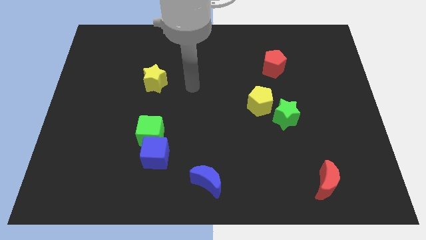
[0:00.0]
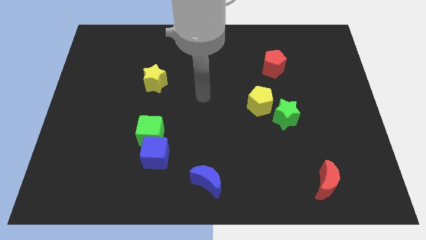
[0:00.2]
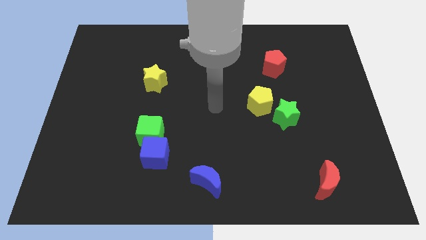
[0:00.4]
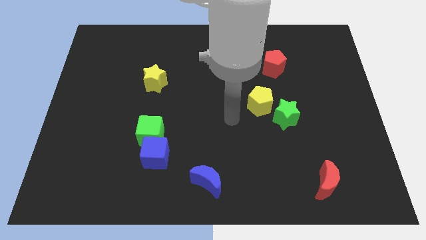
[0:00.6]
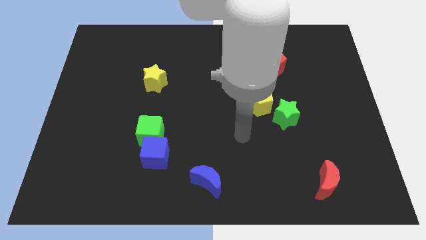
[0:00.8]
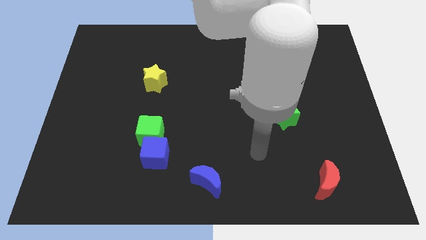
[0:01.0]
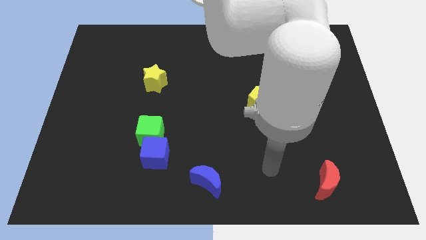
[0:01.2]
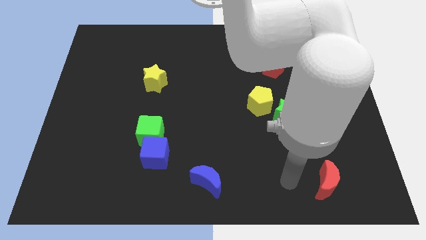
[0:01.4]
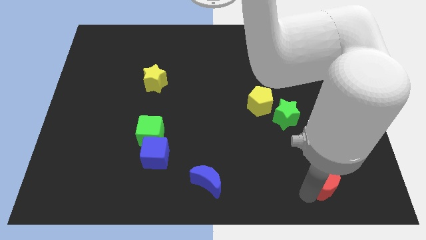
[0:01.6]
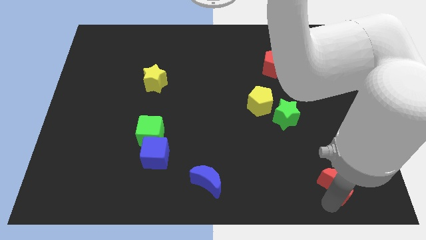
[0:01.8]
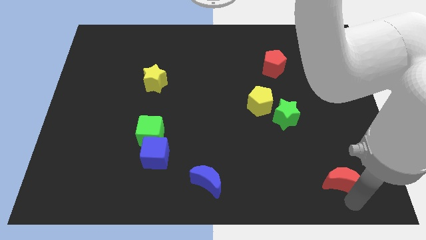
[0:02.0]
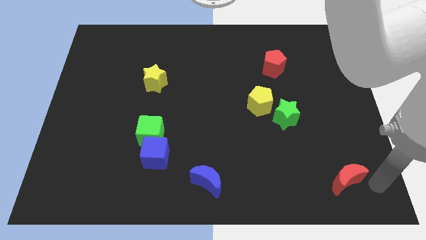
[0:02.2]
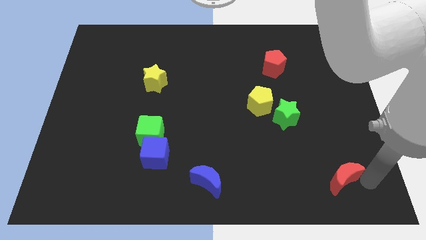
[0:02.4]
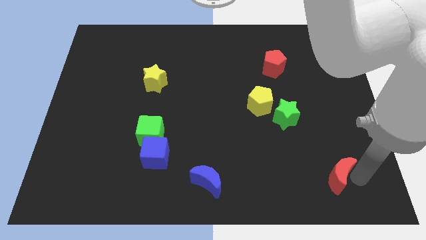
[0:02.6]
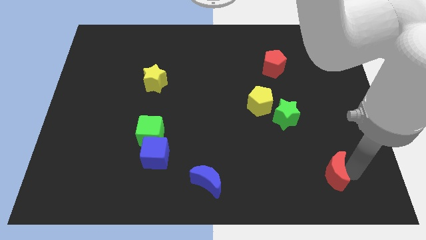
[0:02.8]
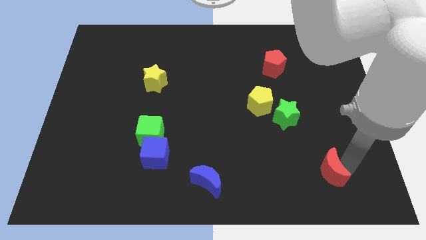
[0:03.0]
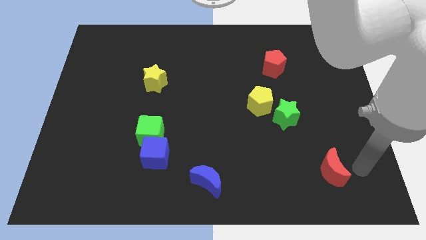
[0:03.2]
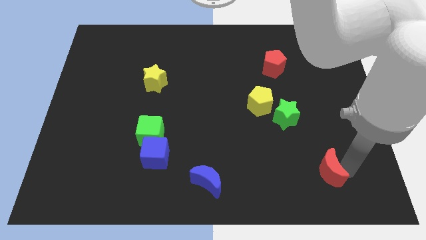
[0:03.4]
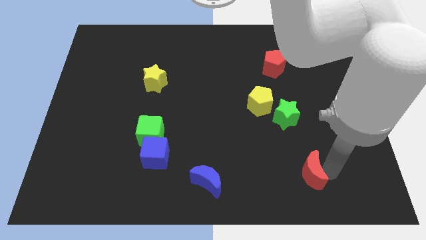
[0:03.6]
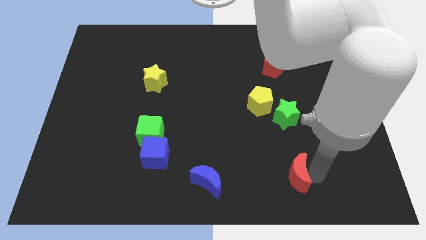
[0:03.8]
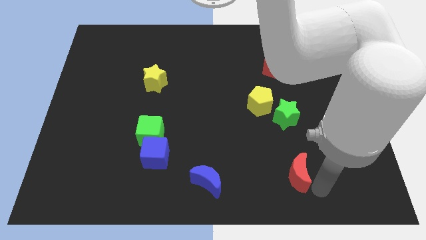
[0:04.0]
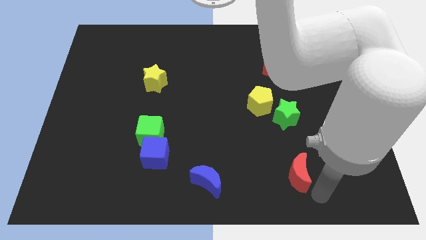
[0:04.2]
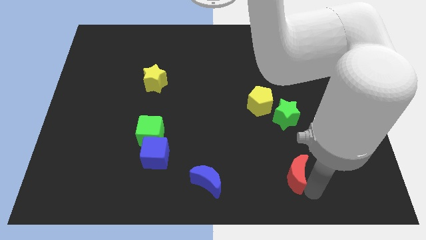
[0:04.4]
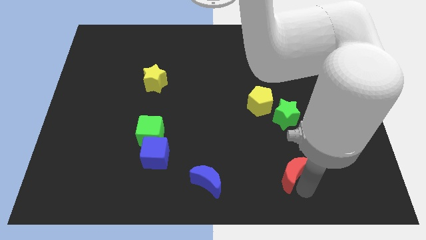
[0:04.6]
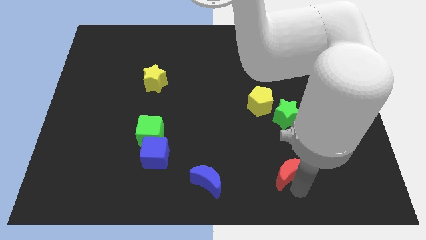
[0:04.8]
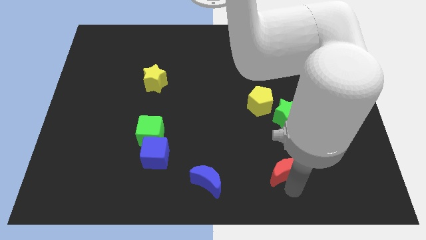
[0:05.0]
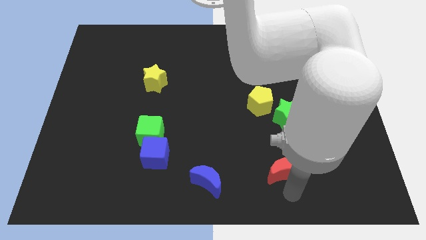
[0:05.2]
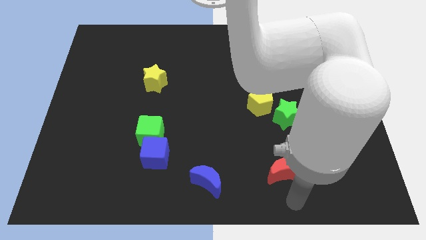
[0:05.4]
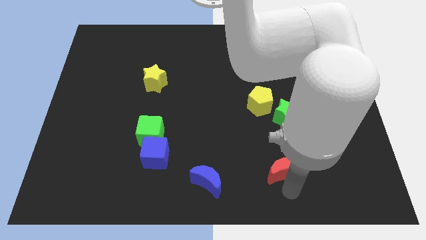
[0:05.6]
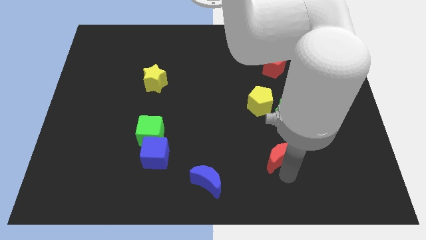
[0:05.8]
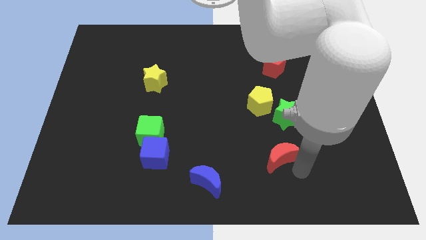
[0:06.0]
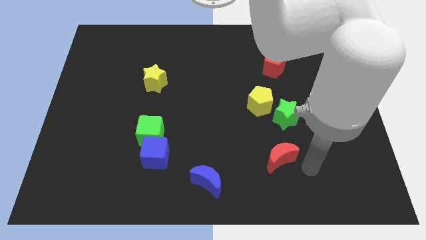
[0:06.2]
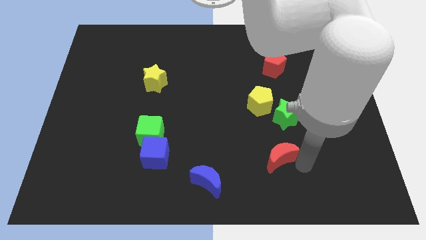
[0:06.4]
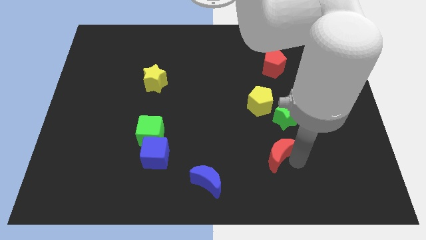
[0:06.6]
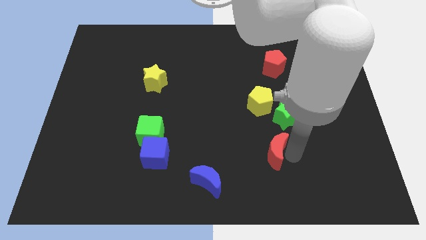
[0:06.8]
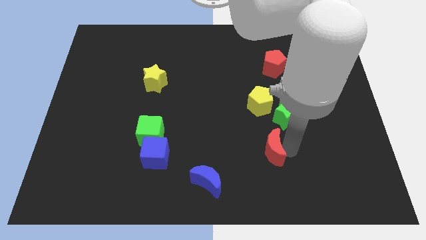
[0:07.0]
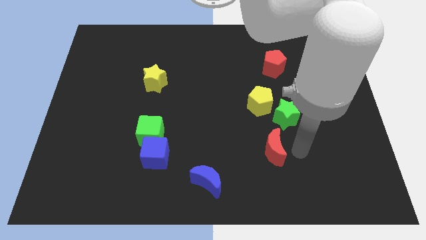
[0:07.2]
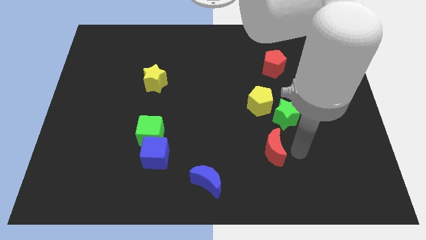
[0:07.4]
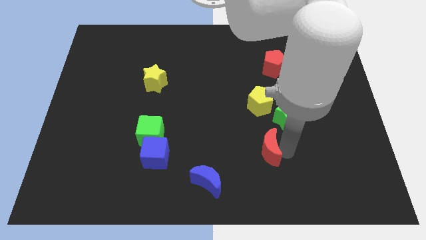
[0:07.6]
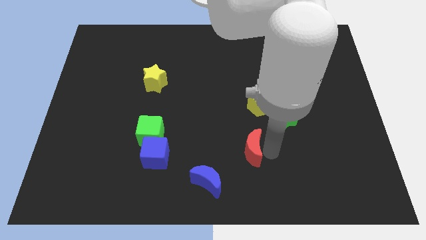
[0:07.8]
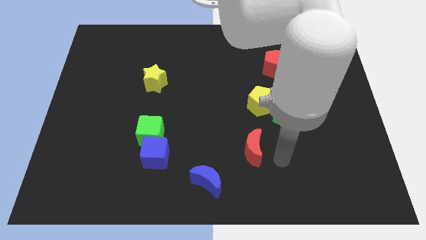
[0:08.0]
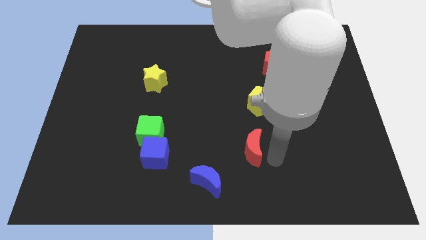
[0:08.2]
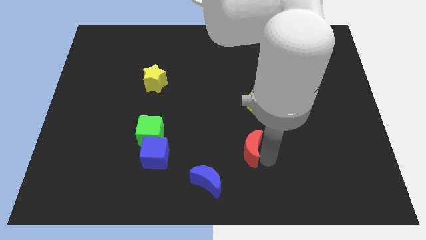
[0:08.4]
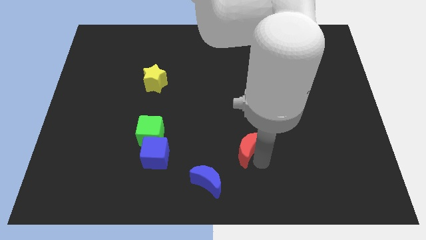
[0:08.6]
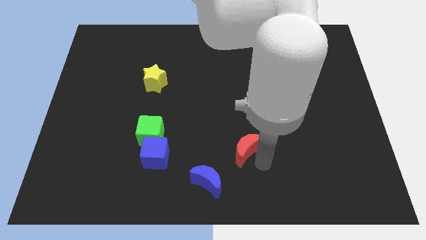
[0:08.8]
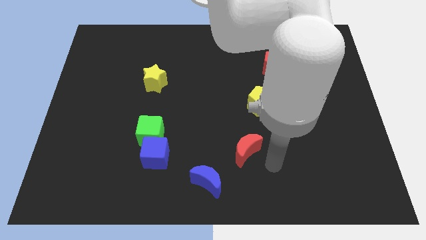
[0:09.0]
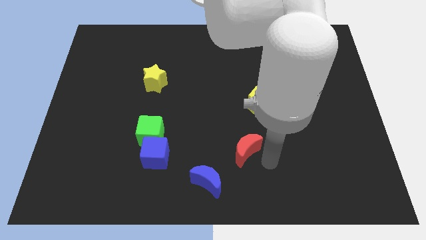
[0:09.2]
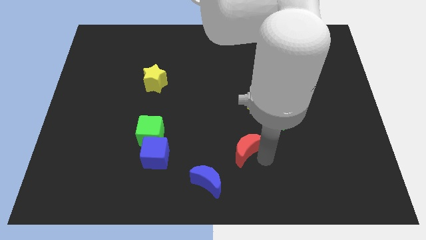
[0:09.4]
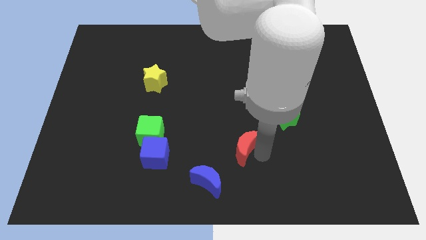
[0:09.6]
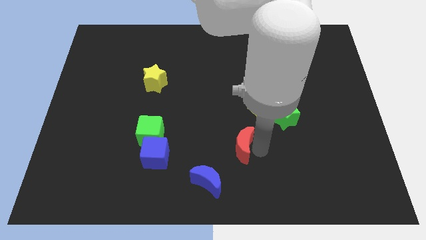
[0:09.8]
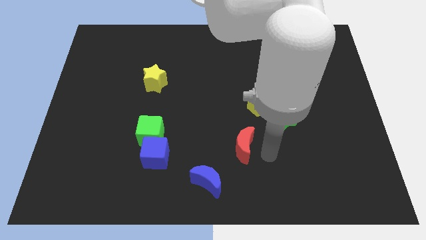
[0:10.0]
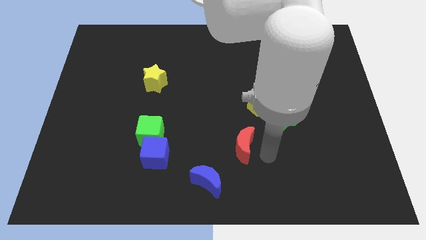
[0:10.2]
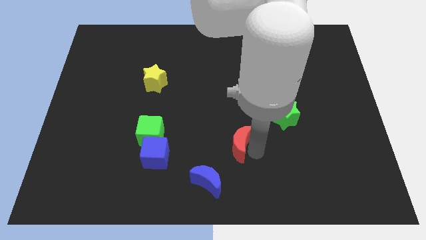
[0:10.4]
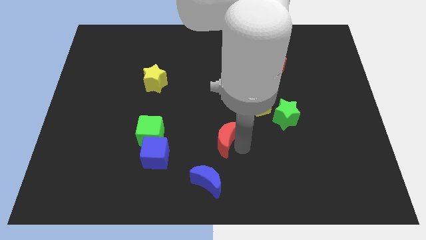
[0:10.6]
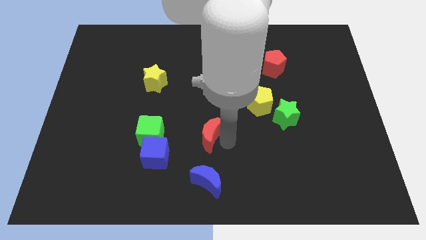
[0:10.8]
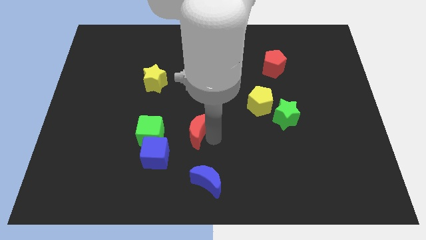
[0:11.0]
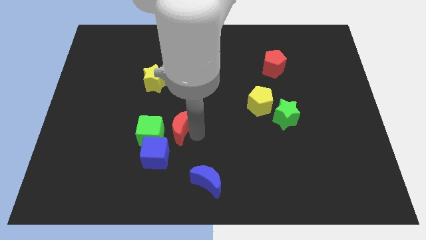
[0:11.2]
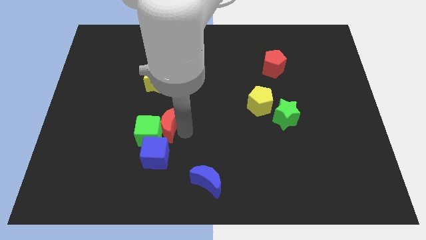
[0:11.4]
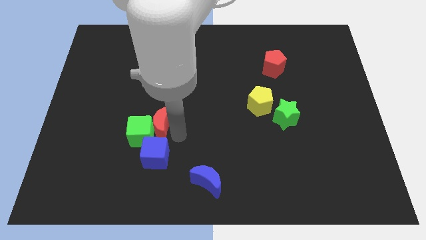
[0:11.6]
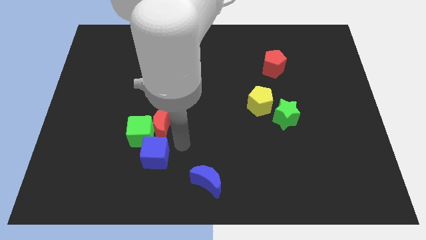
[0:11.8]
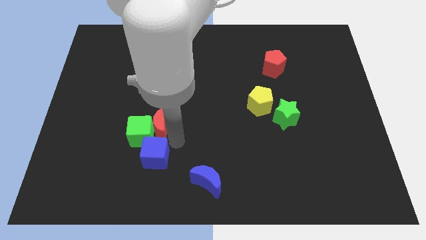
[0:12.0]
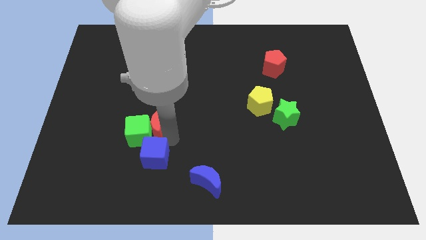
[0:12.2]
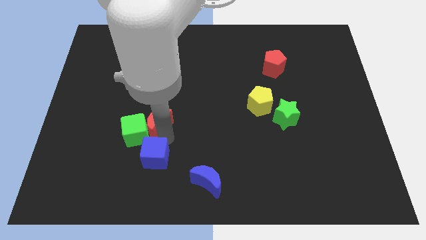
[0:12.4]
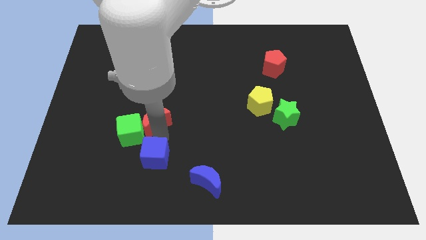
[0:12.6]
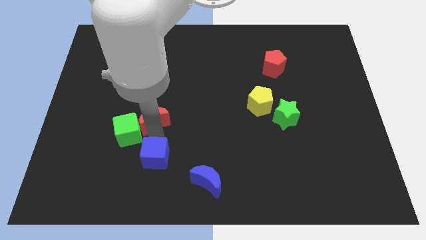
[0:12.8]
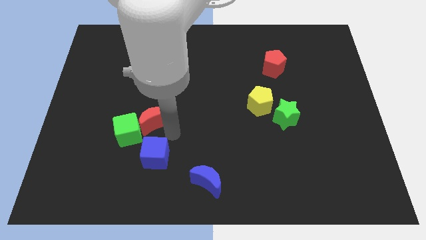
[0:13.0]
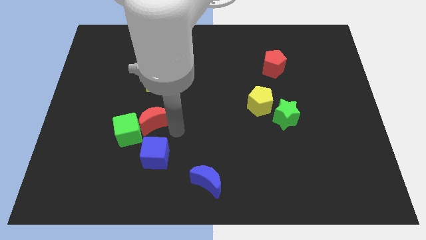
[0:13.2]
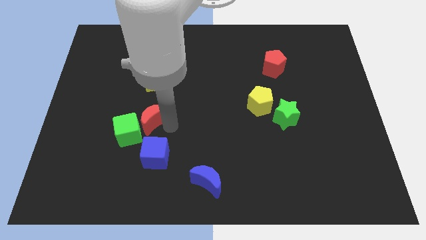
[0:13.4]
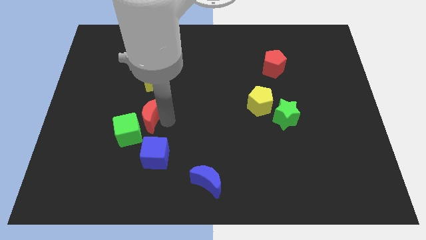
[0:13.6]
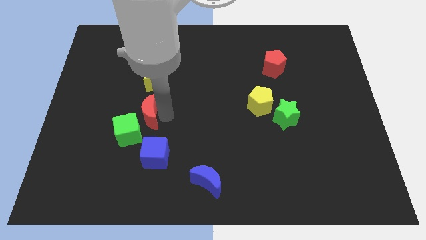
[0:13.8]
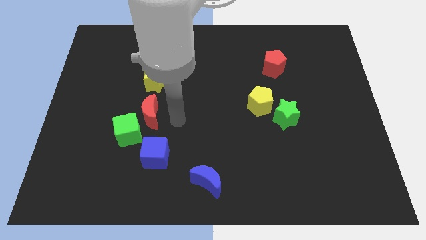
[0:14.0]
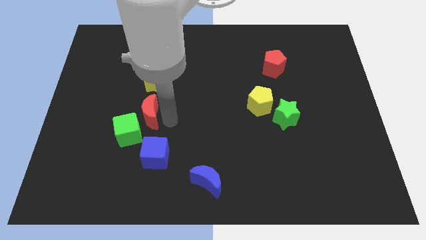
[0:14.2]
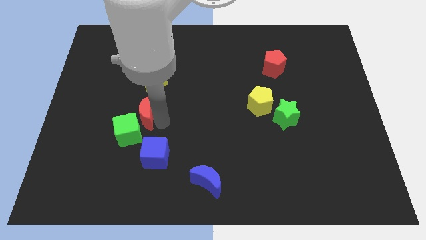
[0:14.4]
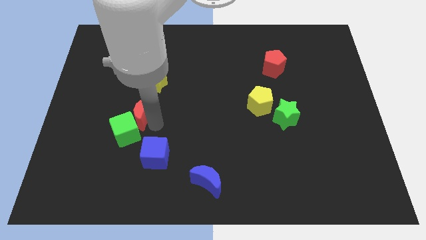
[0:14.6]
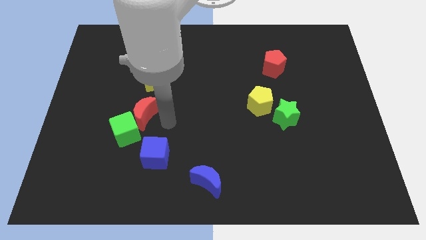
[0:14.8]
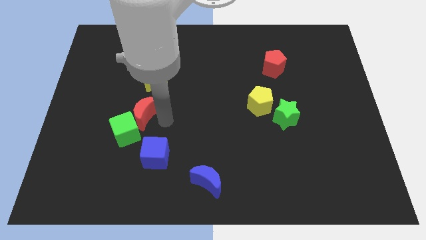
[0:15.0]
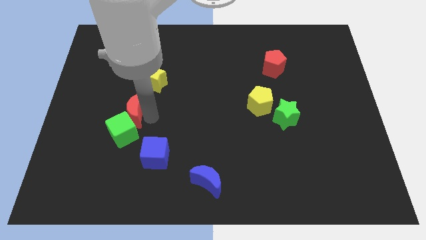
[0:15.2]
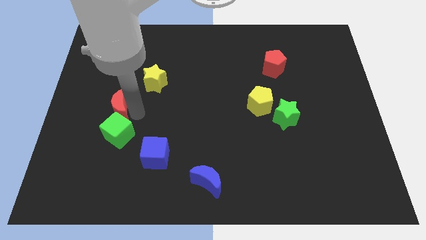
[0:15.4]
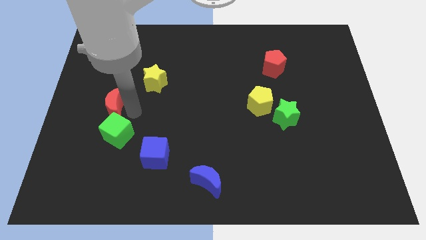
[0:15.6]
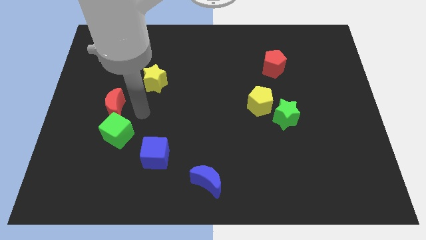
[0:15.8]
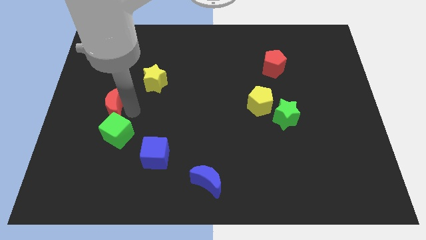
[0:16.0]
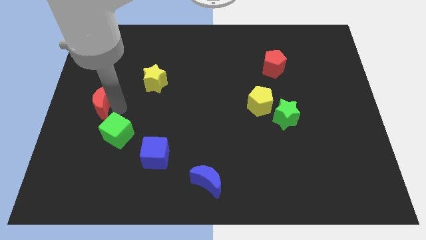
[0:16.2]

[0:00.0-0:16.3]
slide the red moon to the left side of the board
